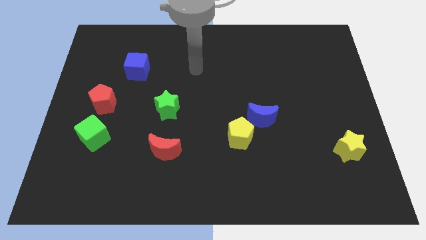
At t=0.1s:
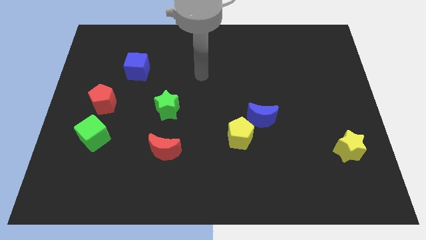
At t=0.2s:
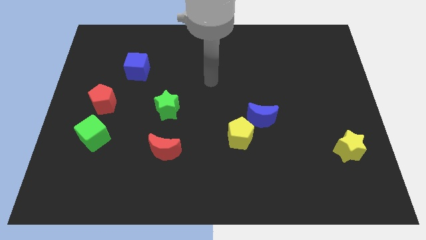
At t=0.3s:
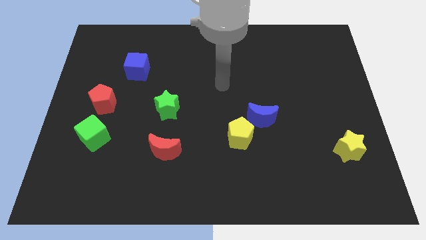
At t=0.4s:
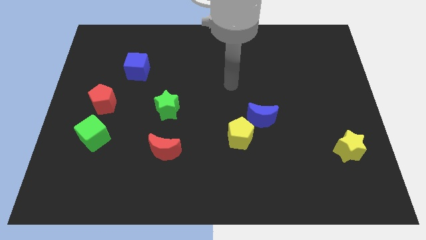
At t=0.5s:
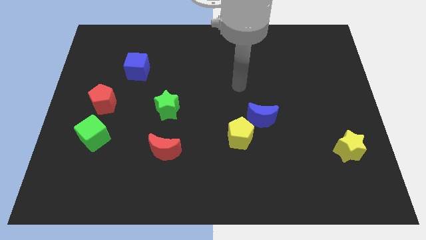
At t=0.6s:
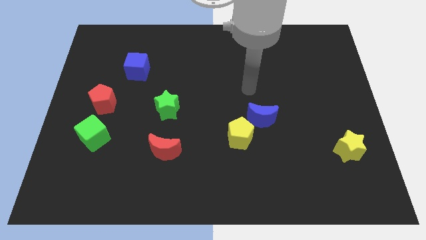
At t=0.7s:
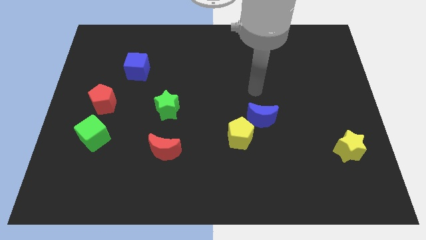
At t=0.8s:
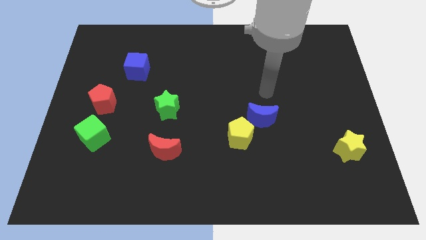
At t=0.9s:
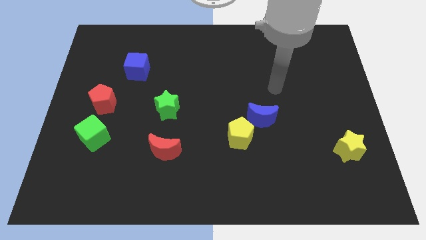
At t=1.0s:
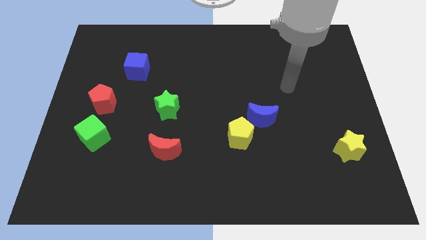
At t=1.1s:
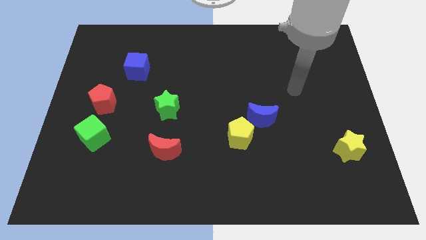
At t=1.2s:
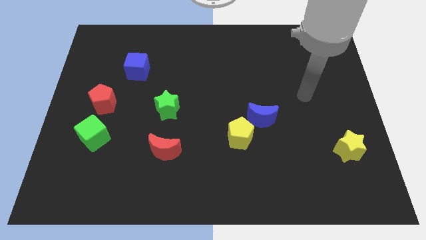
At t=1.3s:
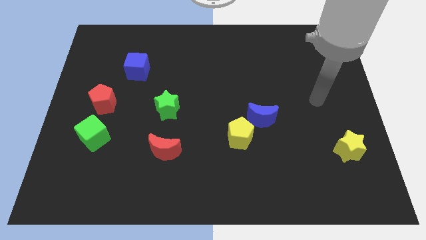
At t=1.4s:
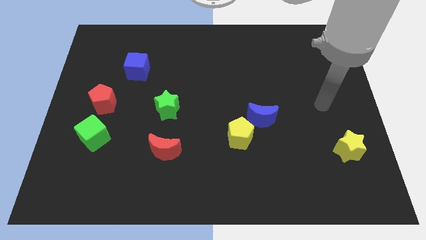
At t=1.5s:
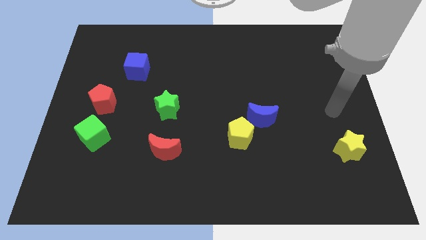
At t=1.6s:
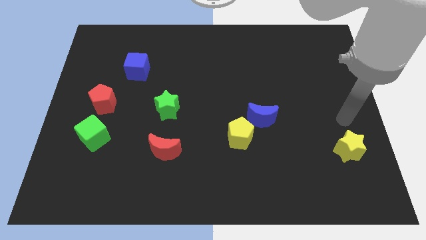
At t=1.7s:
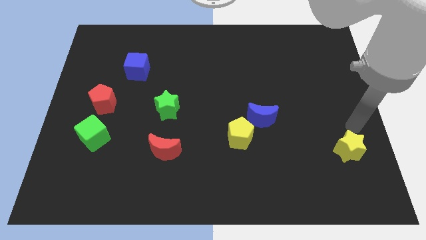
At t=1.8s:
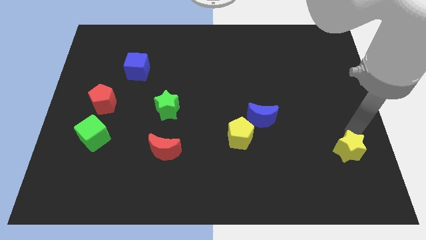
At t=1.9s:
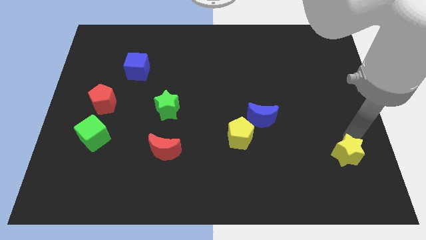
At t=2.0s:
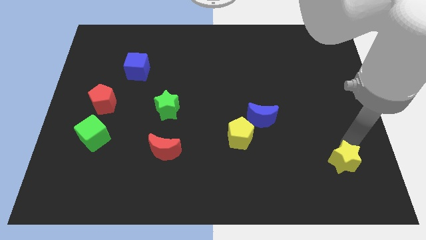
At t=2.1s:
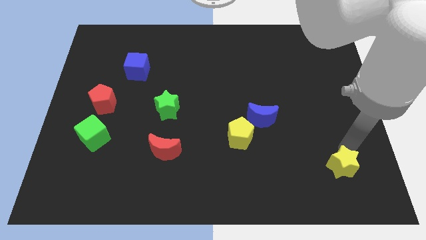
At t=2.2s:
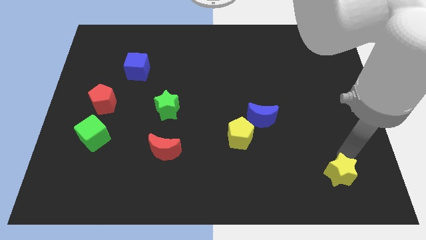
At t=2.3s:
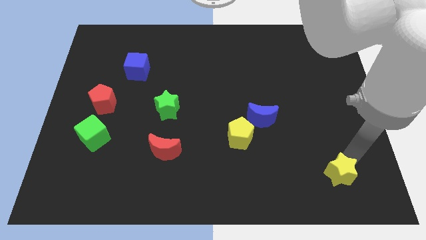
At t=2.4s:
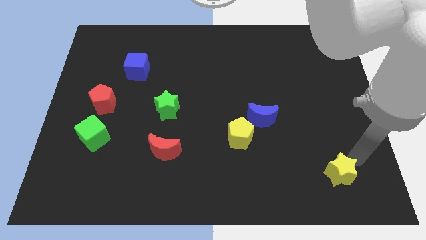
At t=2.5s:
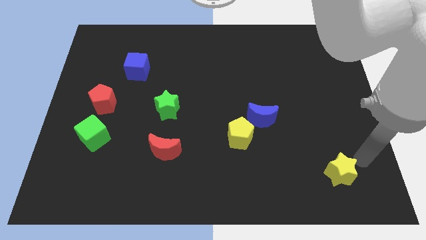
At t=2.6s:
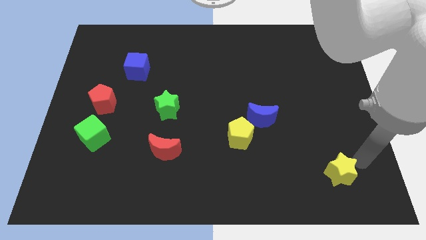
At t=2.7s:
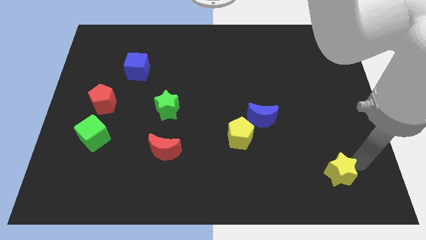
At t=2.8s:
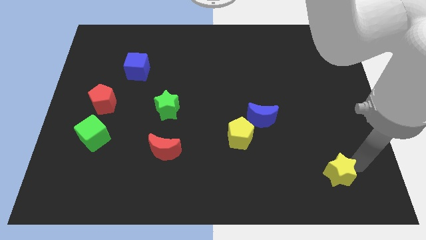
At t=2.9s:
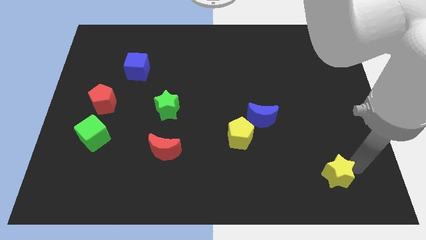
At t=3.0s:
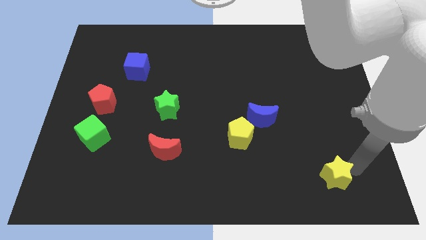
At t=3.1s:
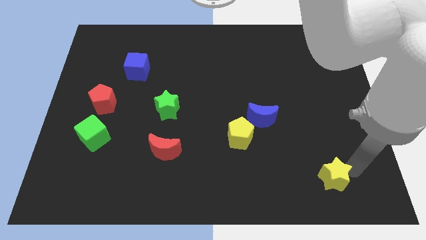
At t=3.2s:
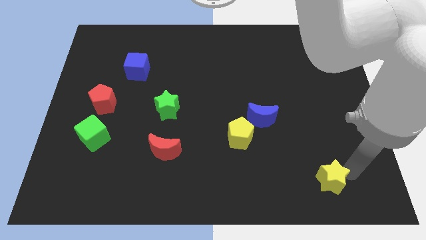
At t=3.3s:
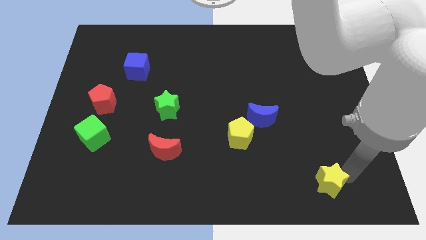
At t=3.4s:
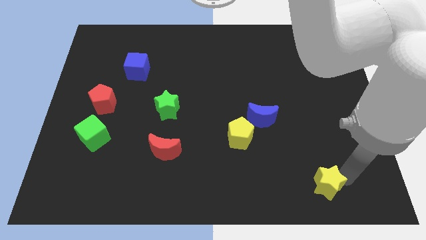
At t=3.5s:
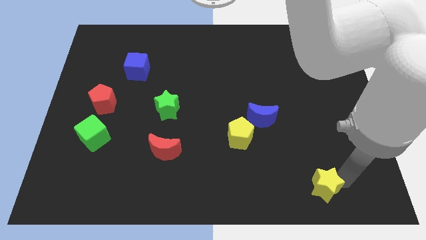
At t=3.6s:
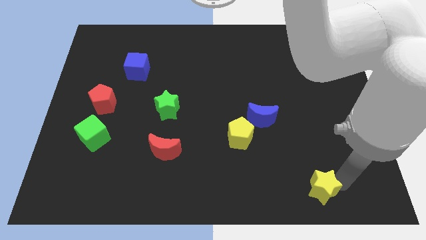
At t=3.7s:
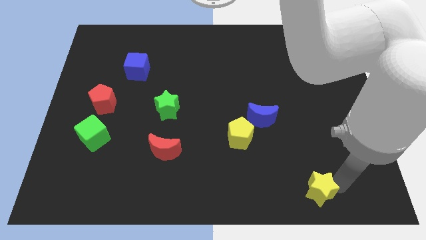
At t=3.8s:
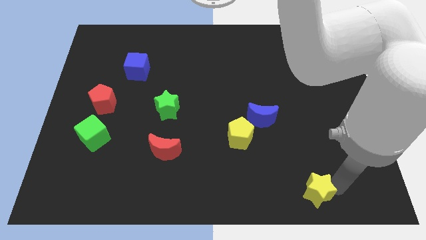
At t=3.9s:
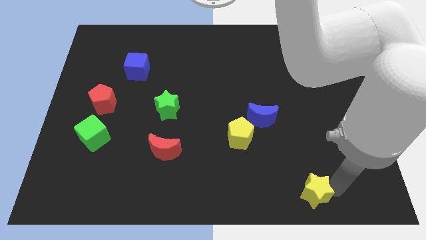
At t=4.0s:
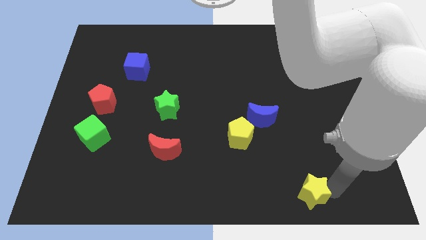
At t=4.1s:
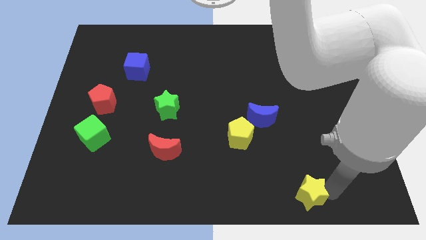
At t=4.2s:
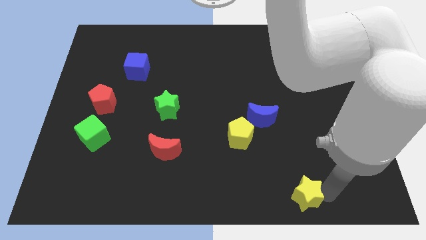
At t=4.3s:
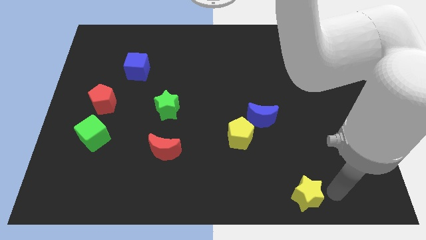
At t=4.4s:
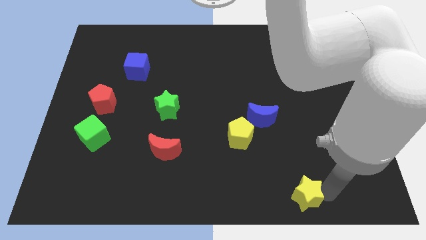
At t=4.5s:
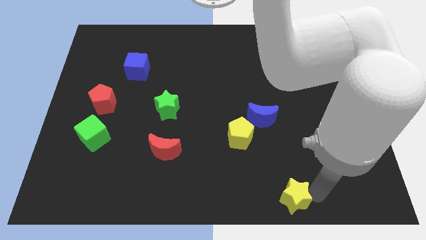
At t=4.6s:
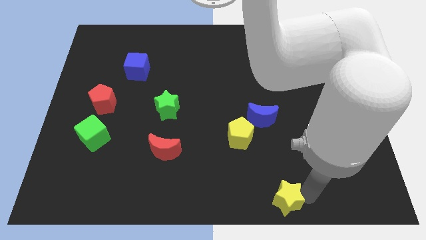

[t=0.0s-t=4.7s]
put the yellow star to the bottom

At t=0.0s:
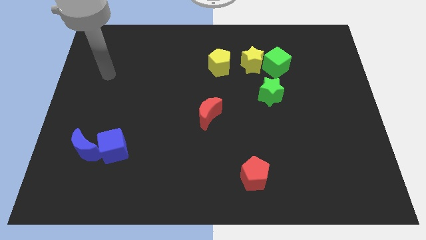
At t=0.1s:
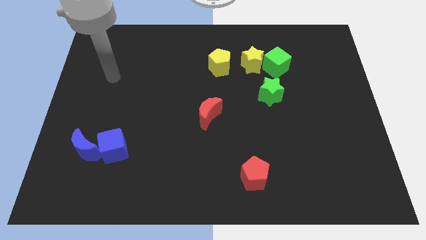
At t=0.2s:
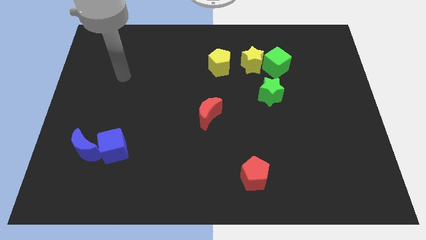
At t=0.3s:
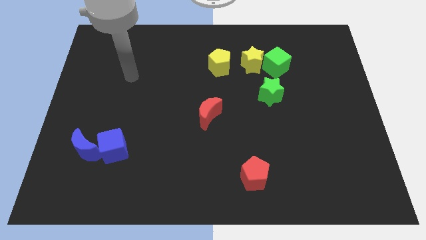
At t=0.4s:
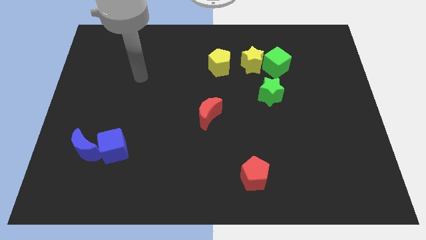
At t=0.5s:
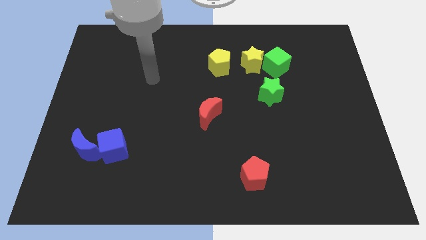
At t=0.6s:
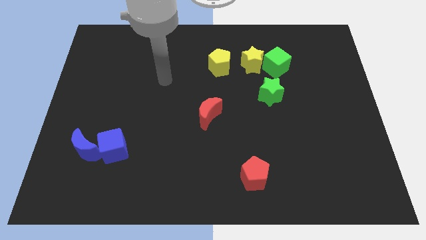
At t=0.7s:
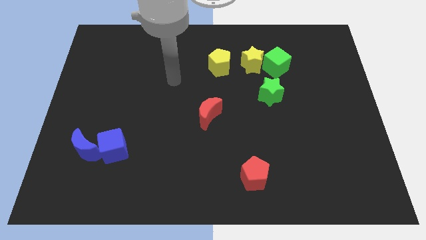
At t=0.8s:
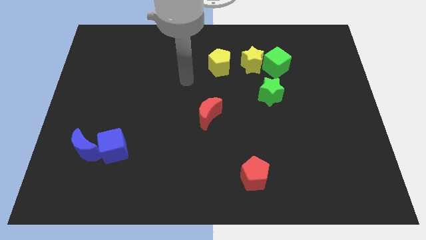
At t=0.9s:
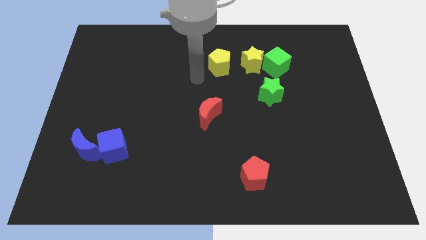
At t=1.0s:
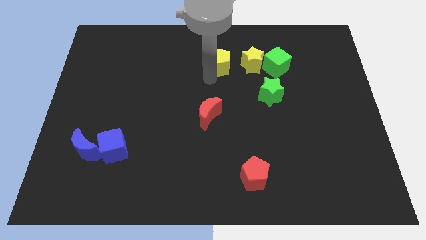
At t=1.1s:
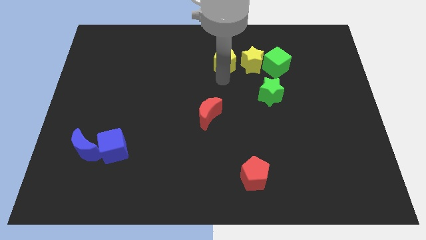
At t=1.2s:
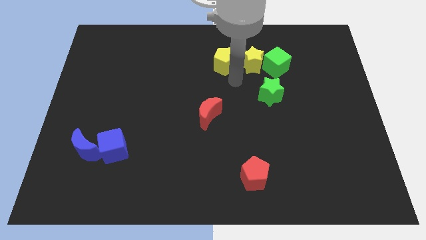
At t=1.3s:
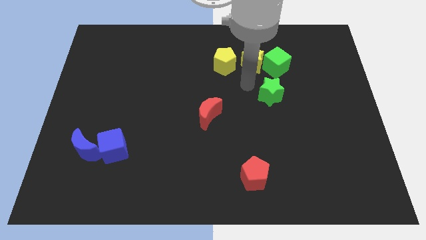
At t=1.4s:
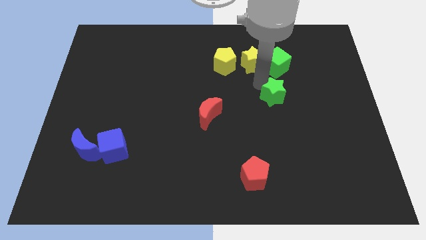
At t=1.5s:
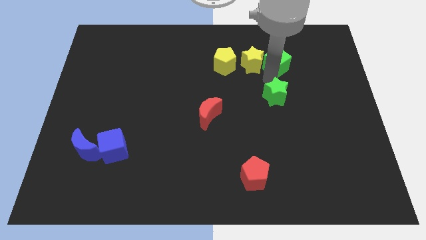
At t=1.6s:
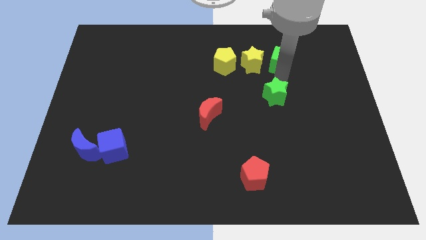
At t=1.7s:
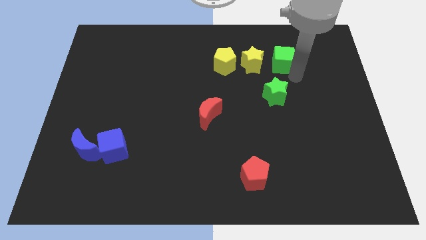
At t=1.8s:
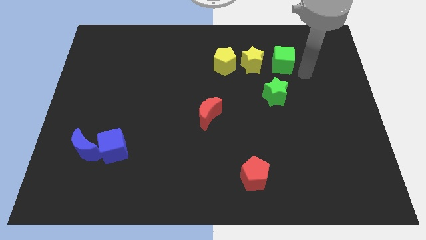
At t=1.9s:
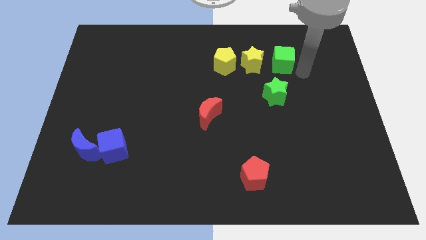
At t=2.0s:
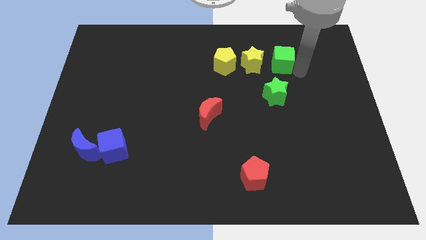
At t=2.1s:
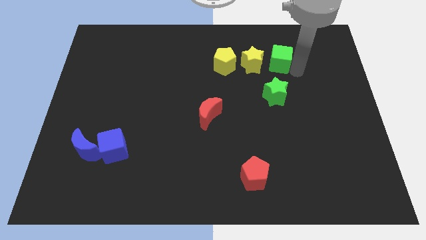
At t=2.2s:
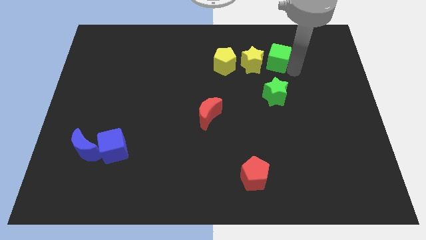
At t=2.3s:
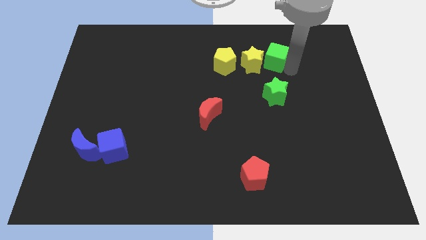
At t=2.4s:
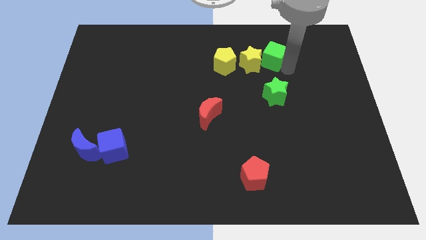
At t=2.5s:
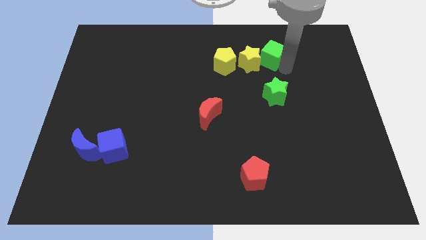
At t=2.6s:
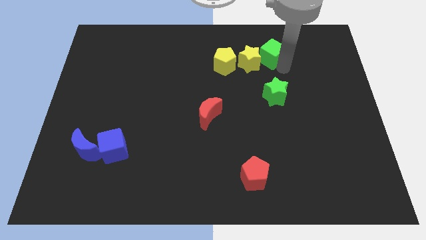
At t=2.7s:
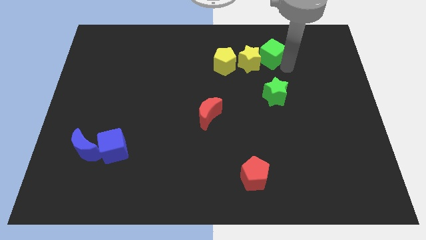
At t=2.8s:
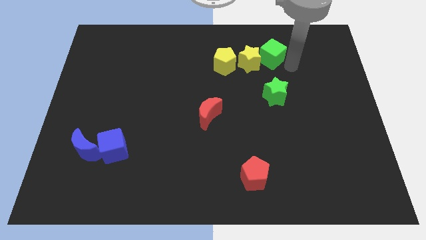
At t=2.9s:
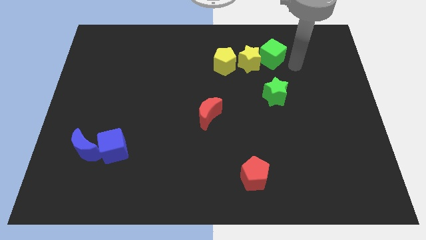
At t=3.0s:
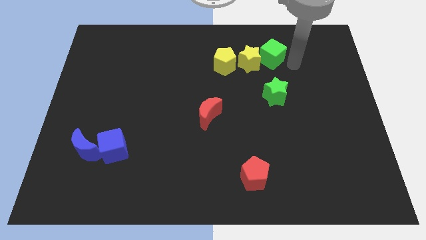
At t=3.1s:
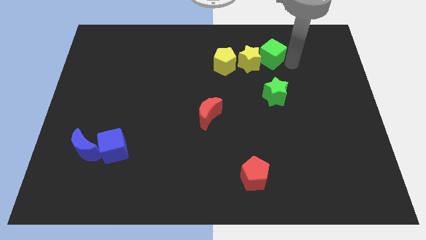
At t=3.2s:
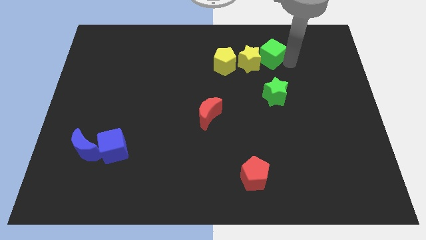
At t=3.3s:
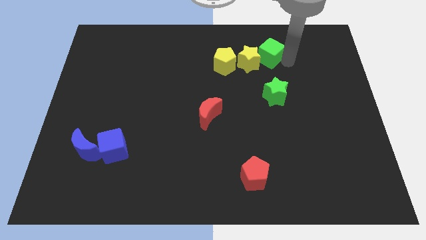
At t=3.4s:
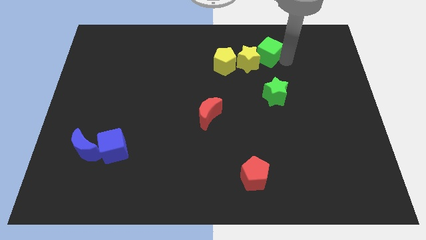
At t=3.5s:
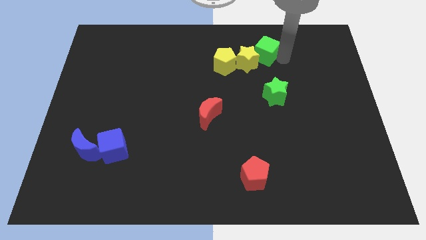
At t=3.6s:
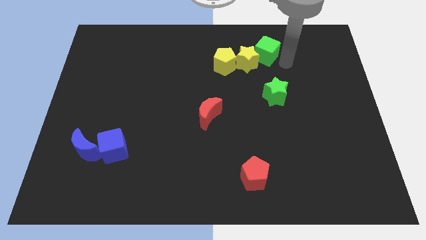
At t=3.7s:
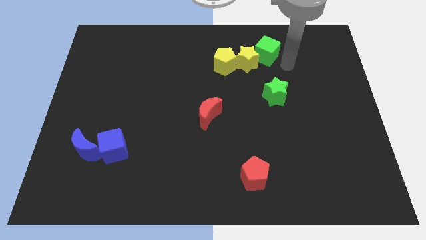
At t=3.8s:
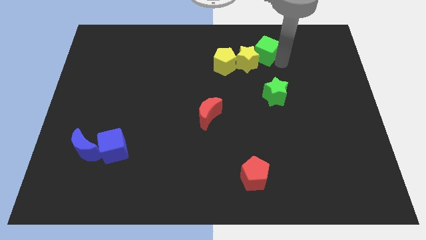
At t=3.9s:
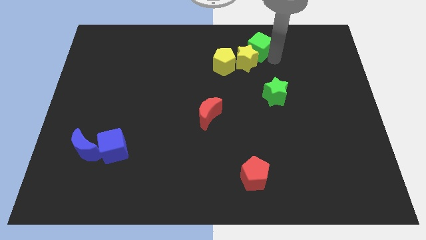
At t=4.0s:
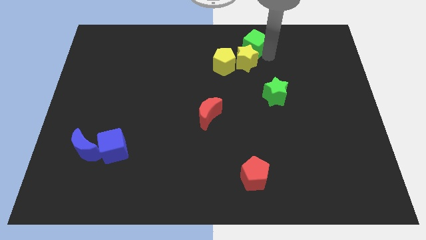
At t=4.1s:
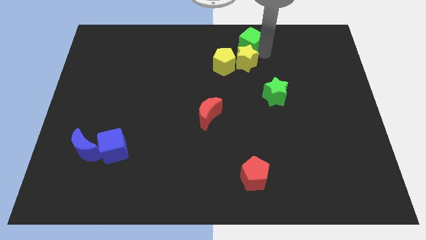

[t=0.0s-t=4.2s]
push the green cube to the towards your base
